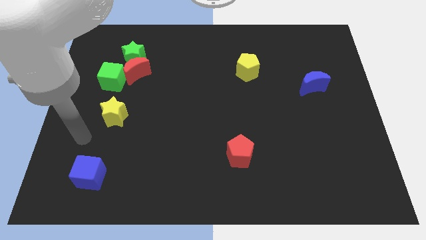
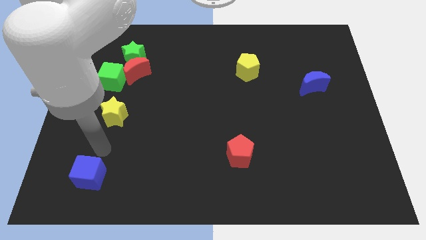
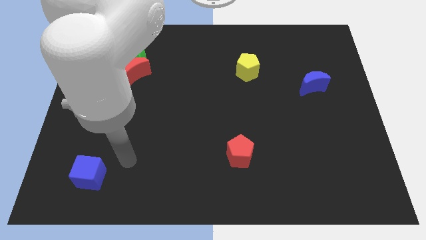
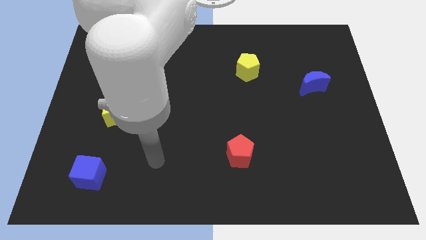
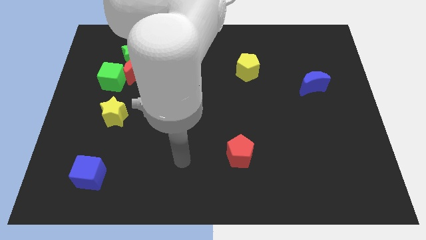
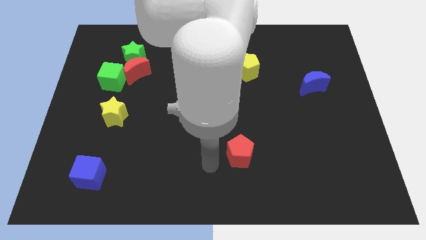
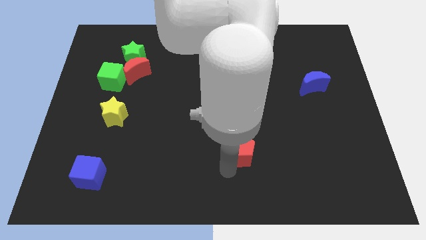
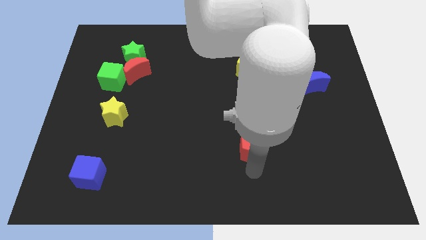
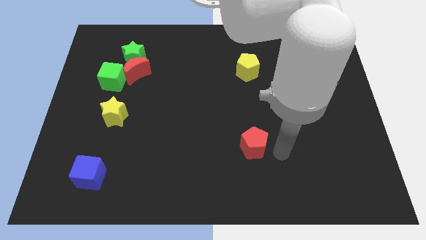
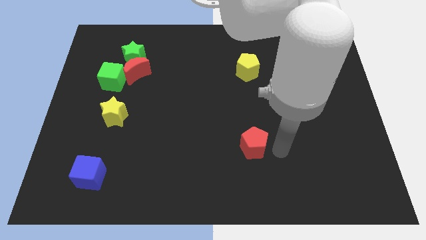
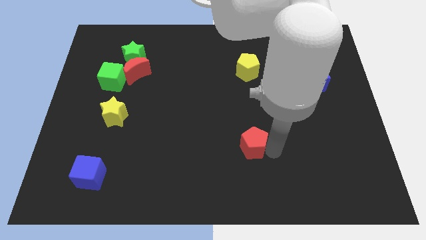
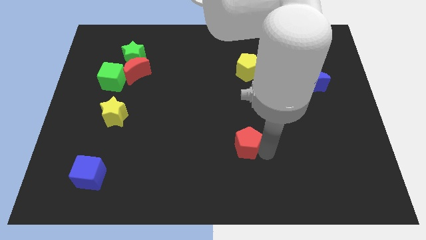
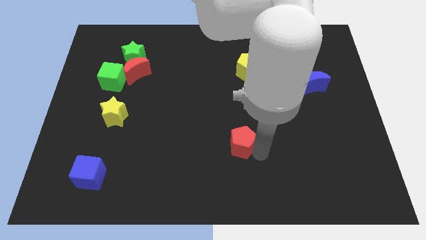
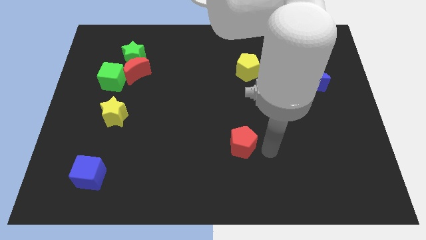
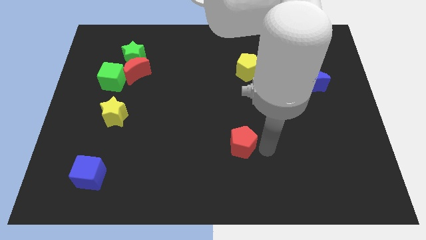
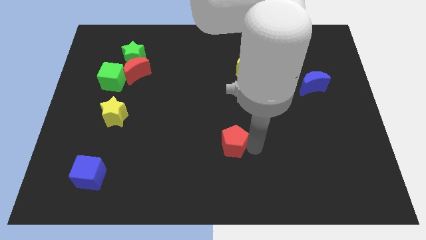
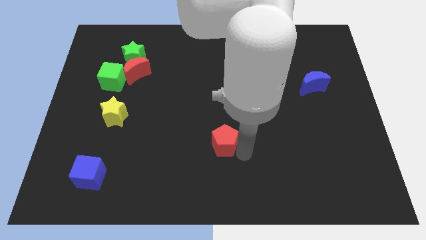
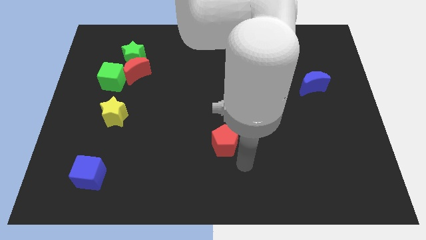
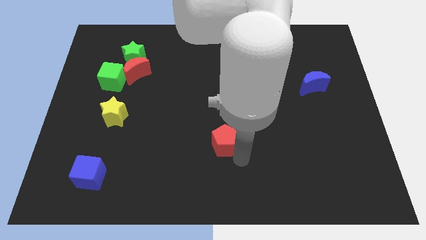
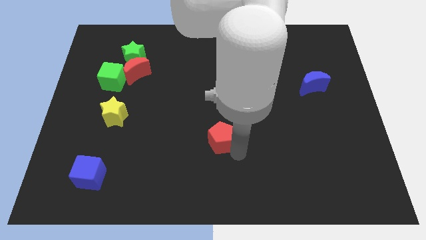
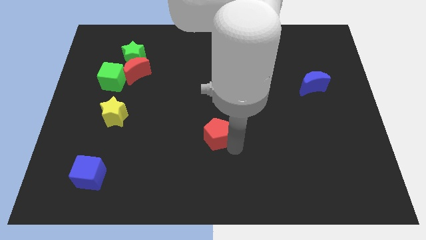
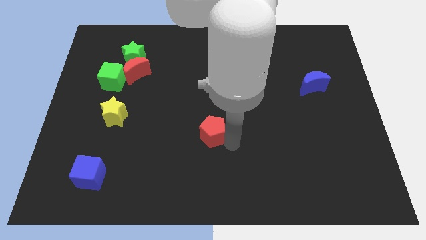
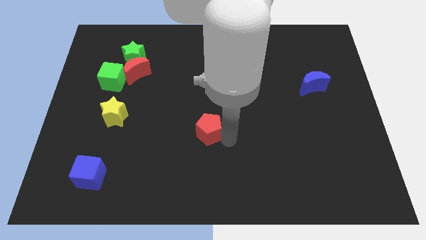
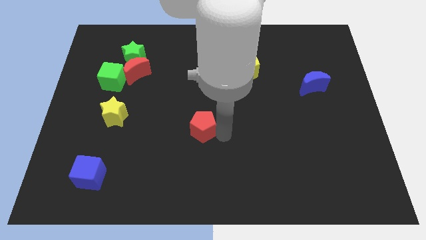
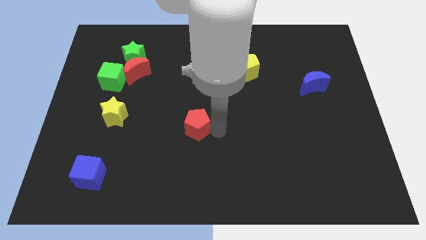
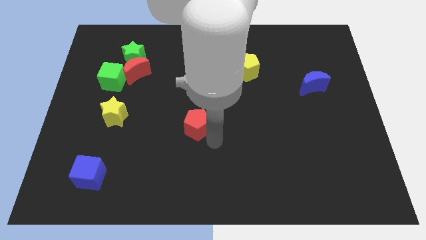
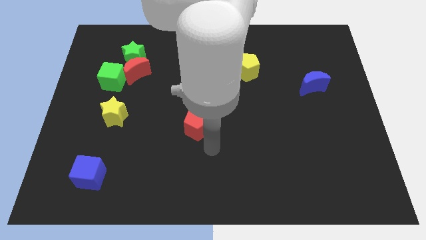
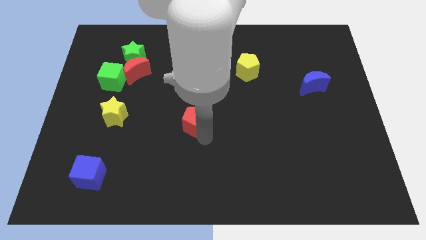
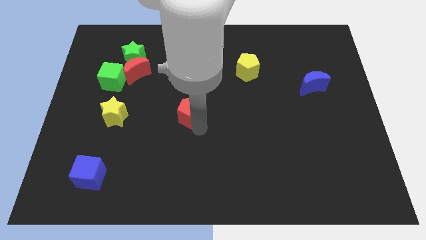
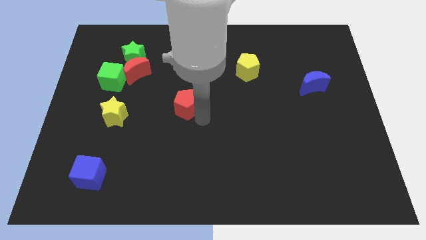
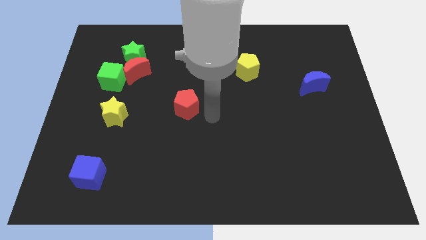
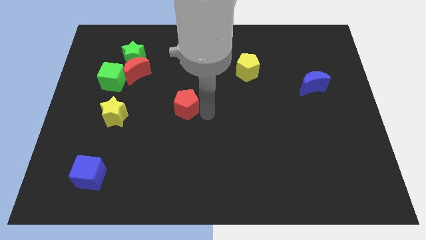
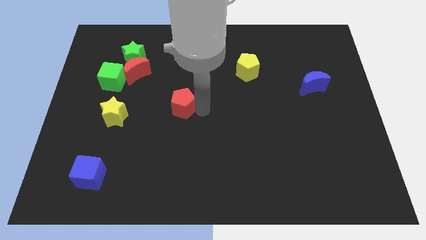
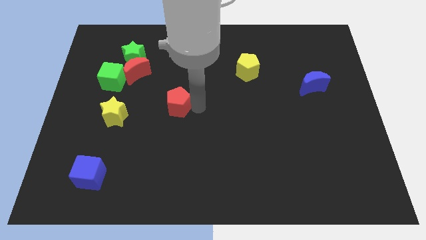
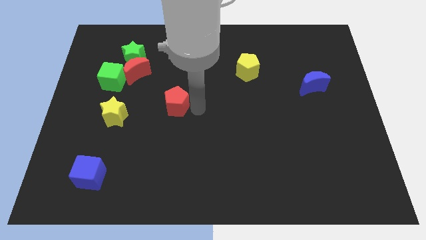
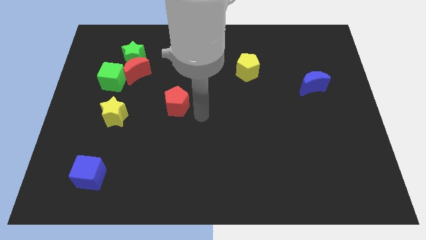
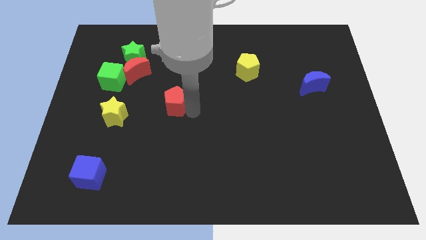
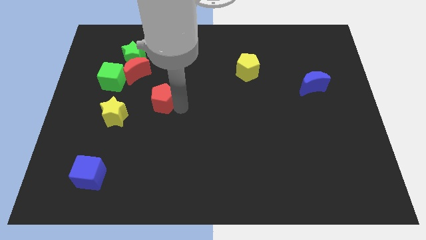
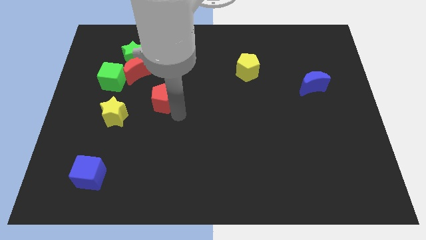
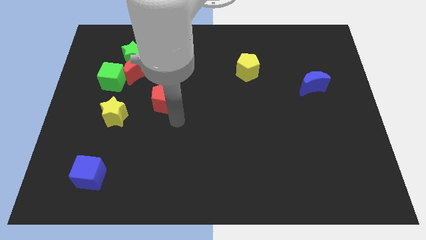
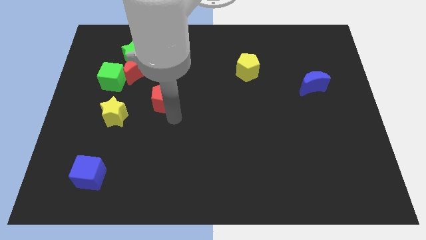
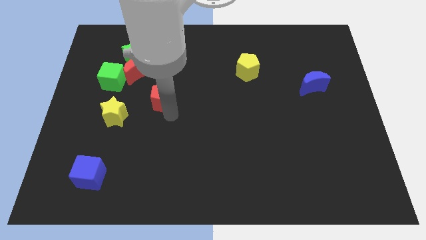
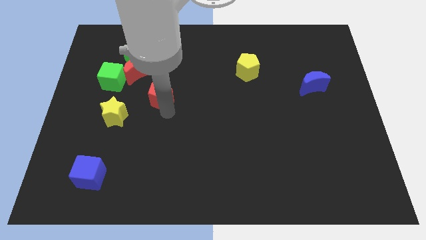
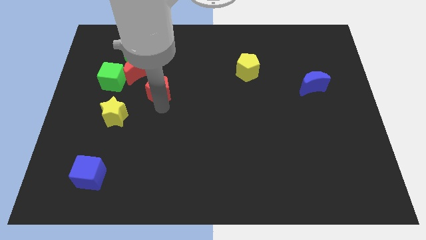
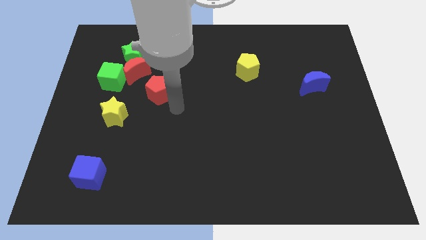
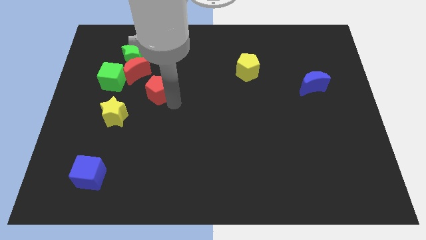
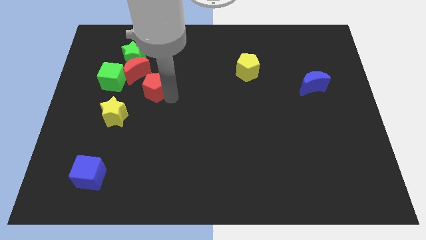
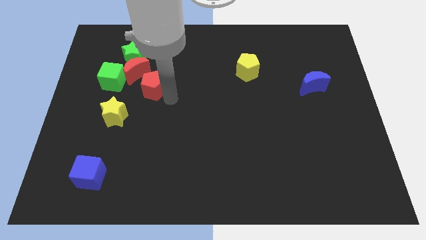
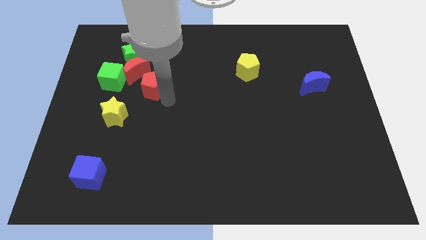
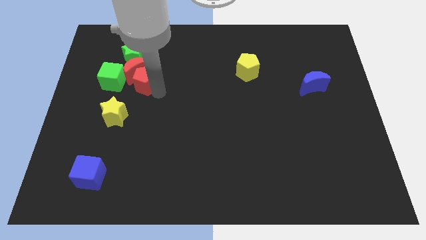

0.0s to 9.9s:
slide the red pentagon to the red moon

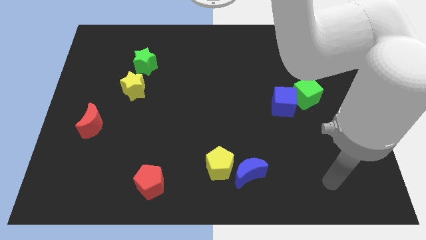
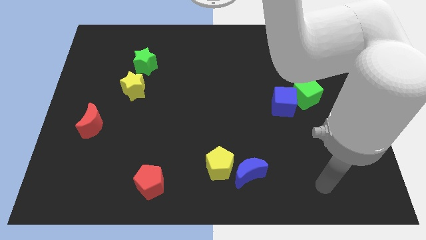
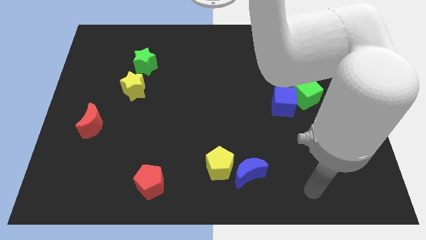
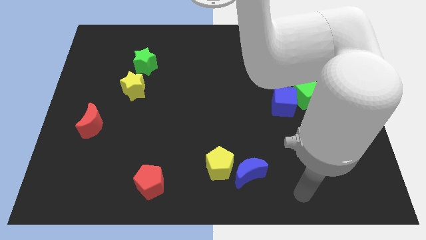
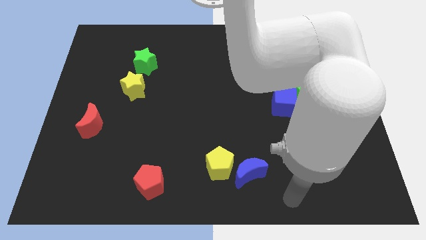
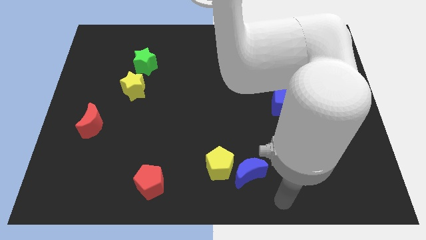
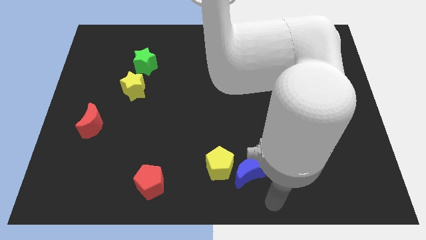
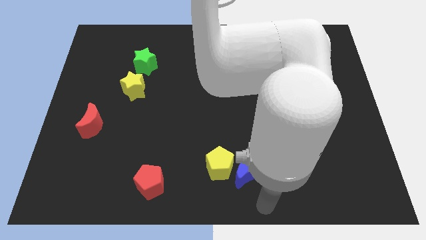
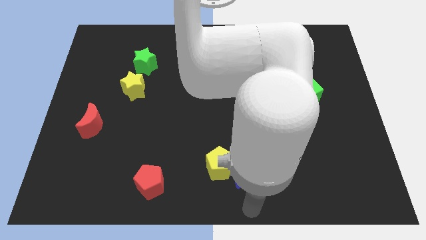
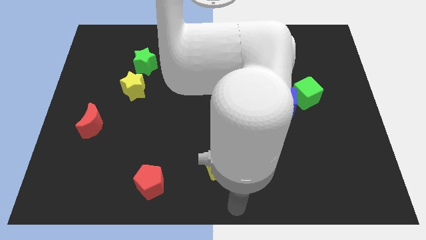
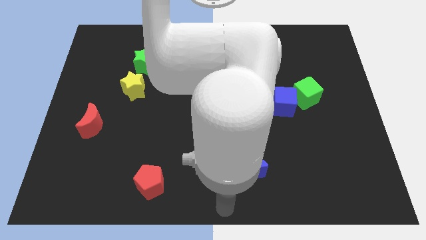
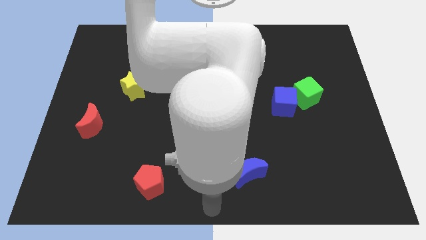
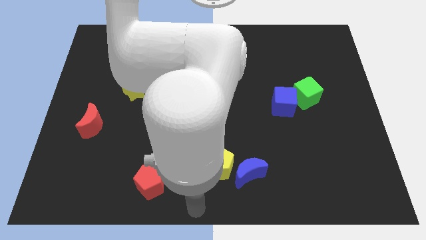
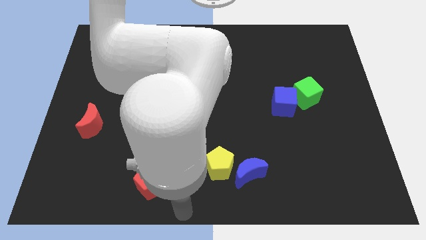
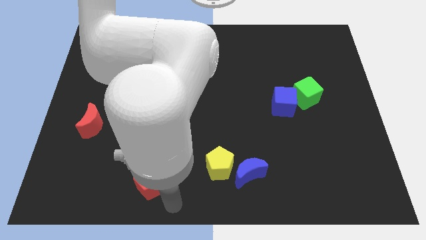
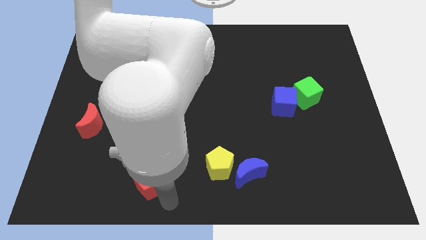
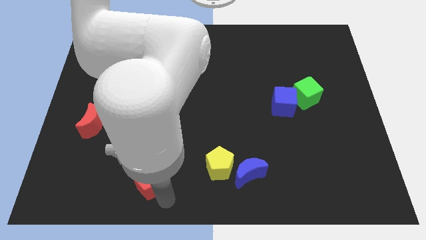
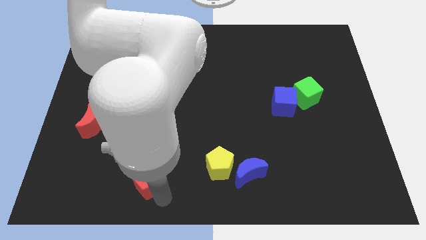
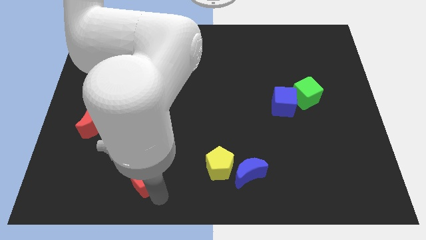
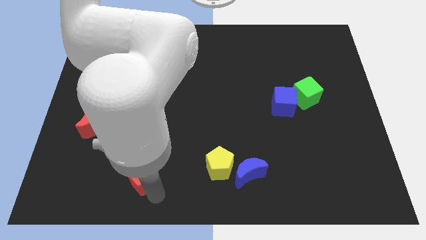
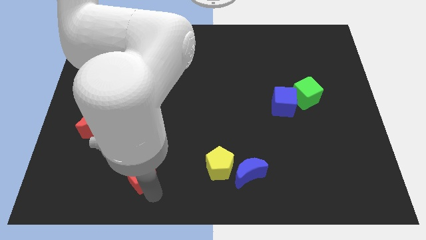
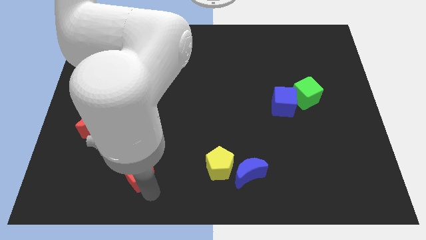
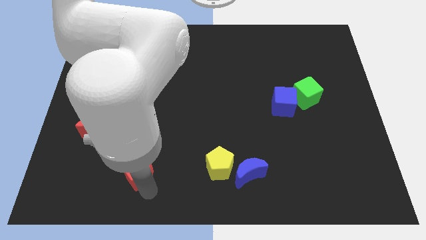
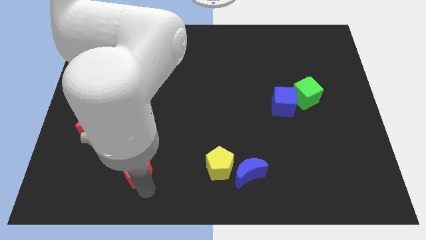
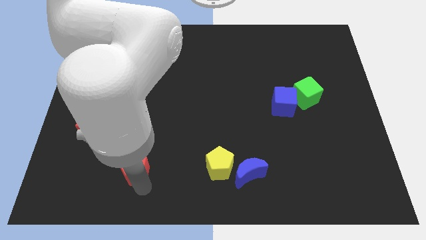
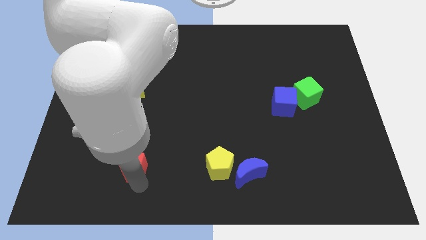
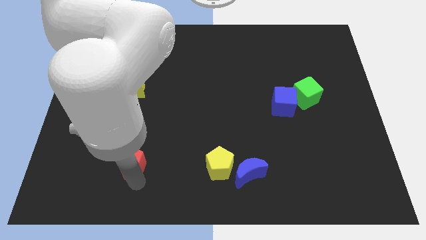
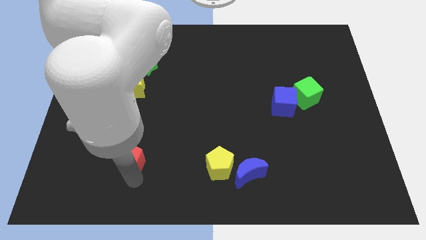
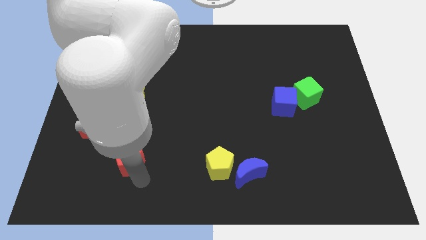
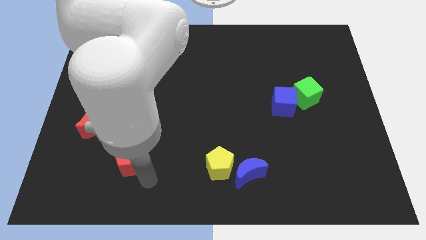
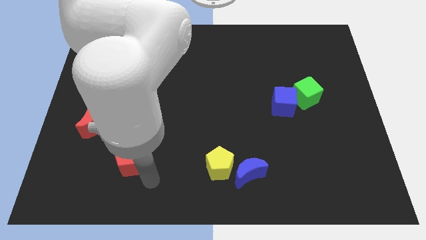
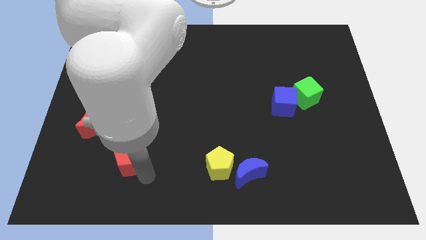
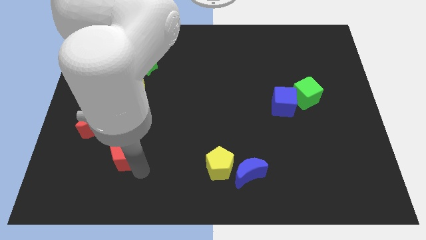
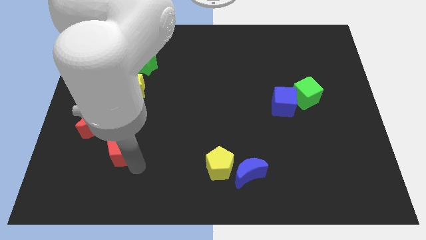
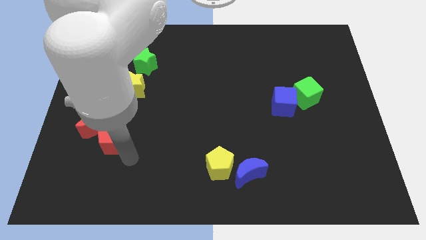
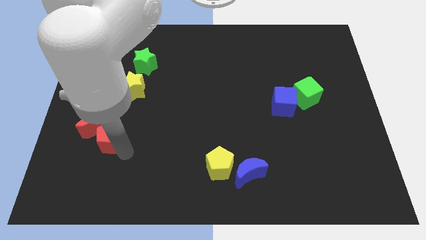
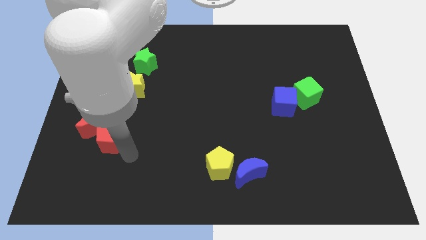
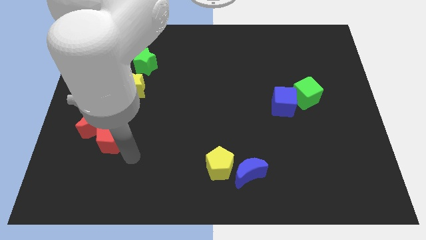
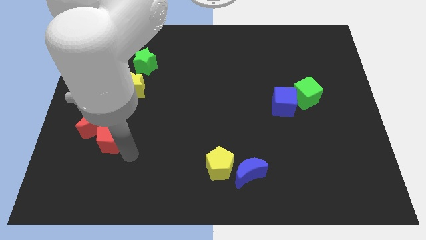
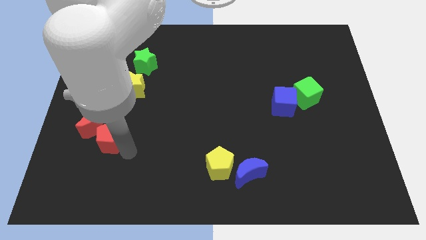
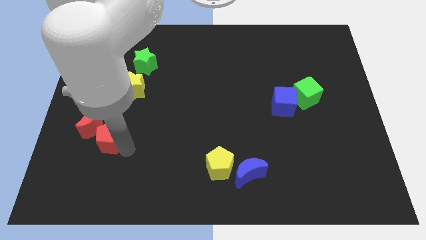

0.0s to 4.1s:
push the red pentagon to the red moon
